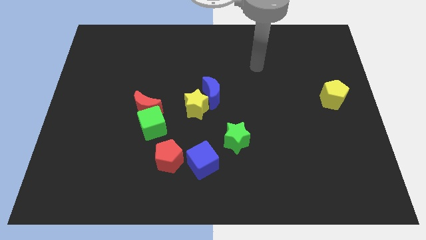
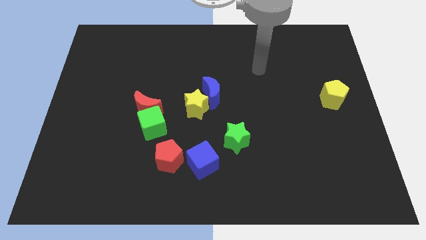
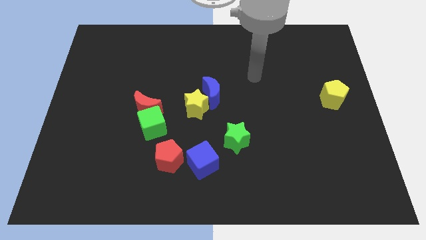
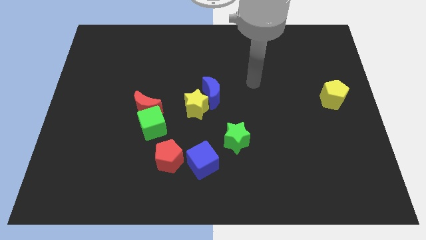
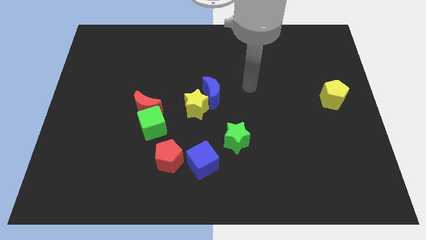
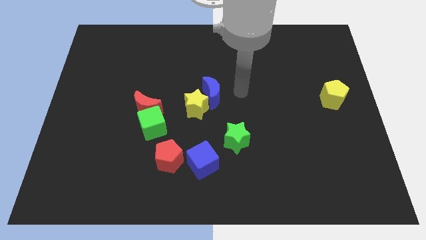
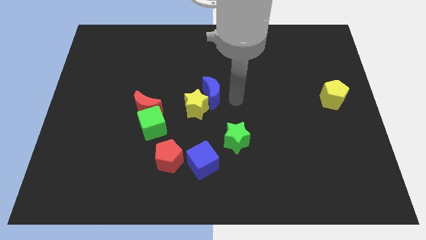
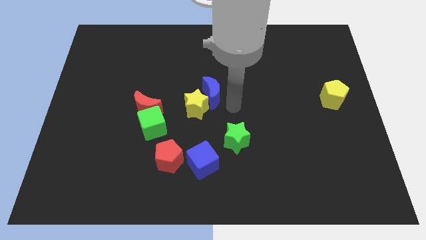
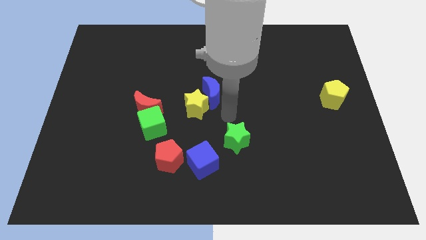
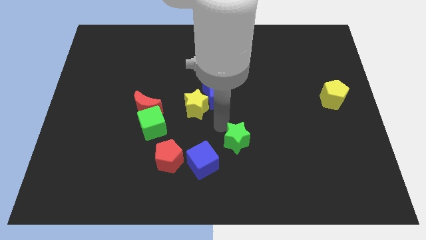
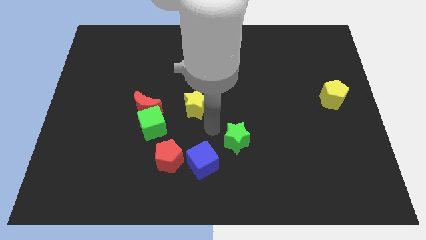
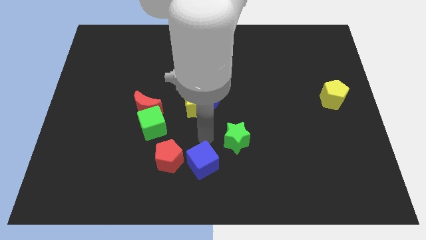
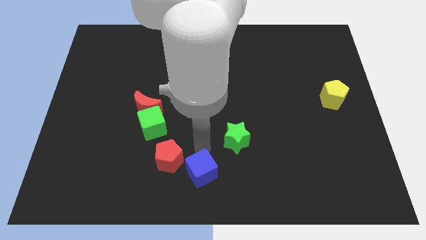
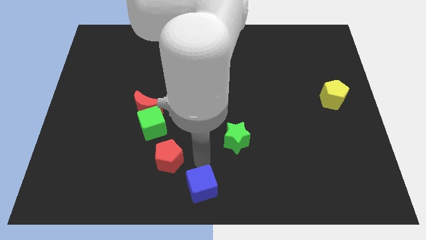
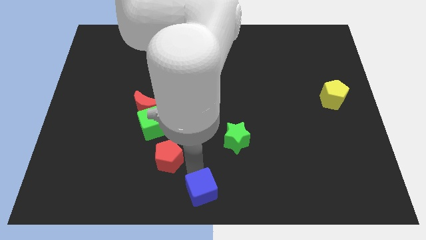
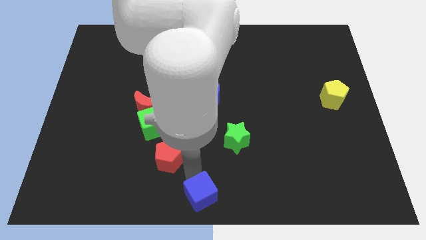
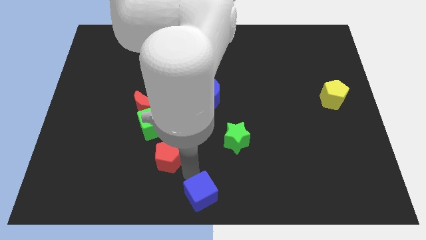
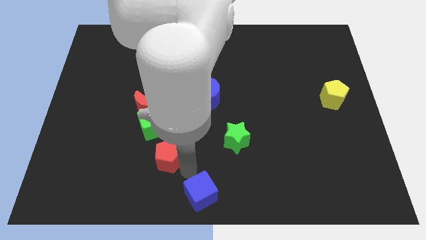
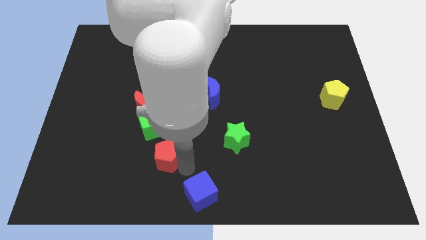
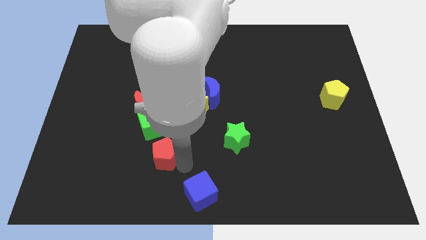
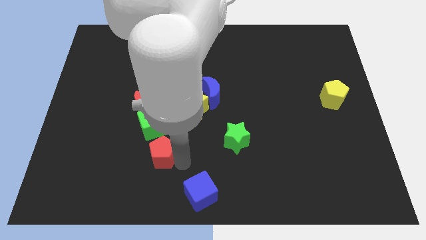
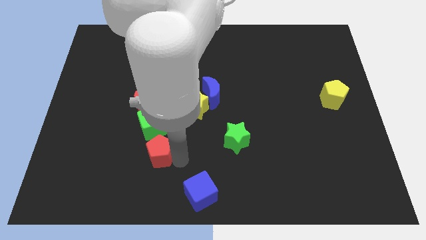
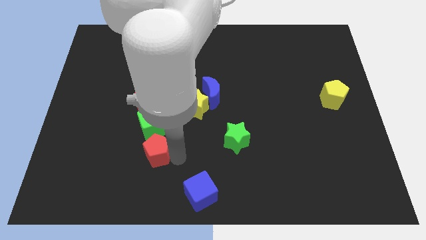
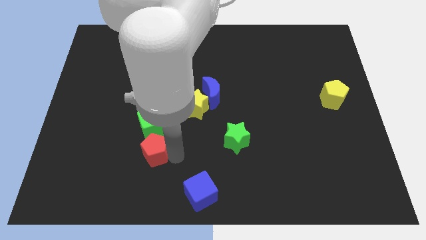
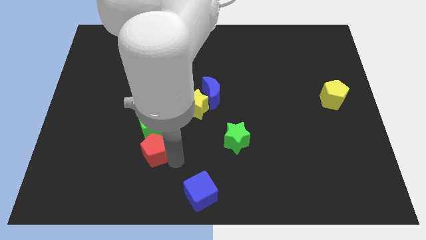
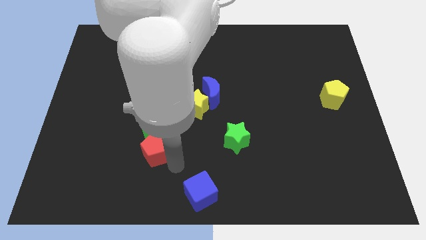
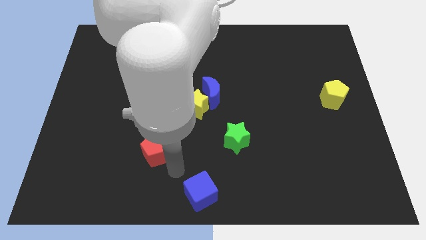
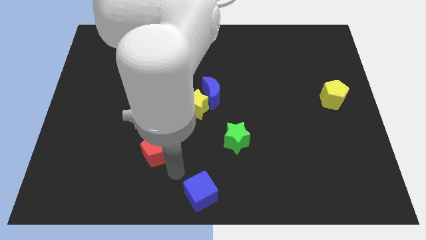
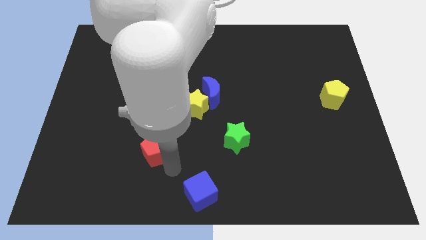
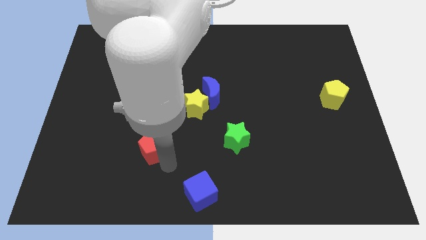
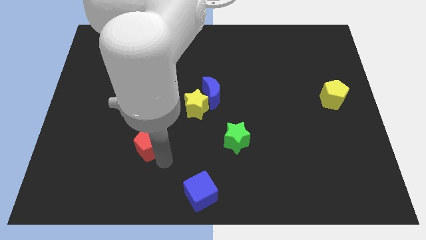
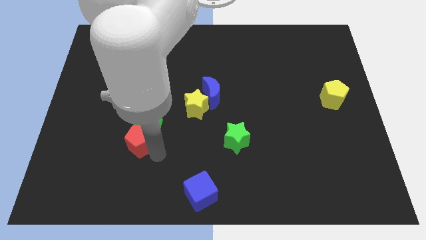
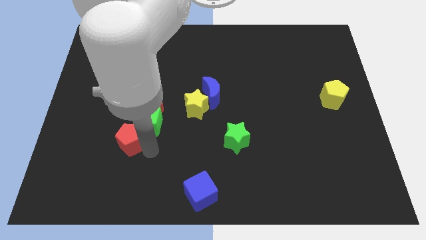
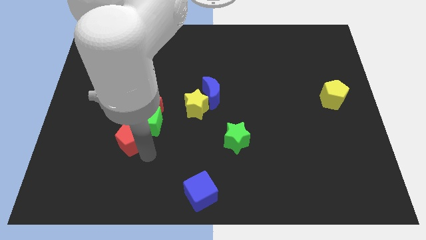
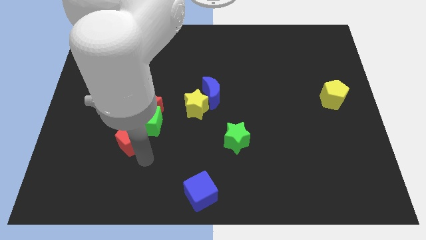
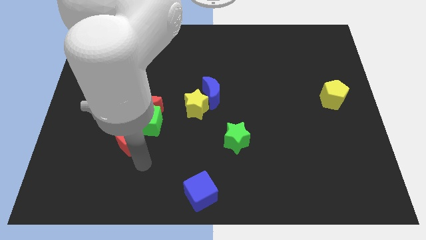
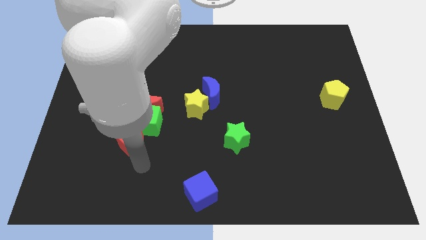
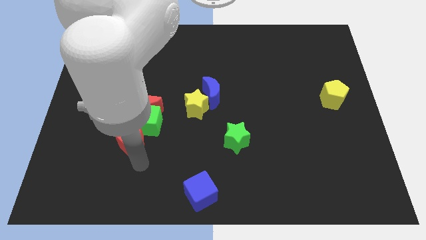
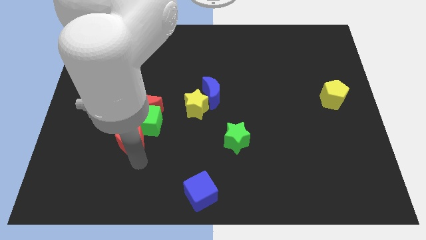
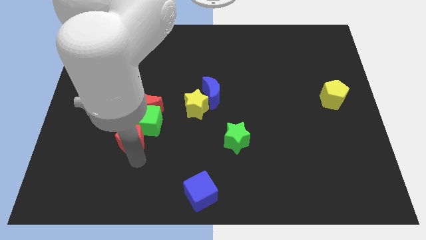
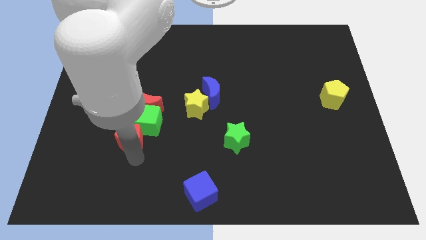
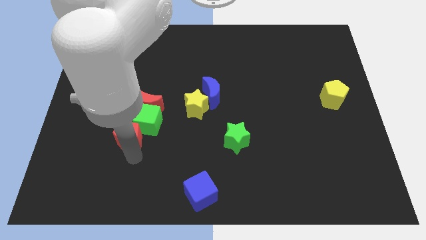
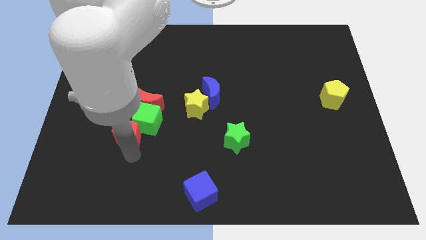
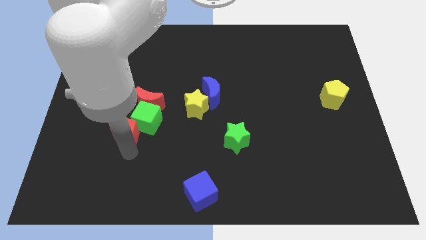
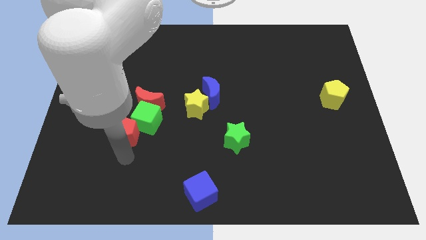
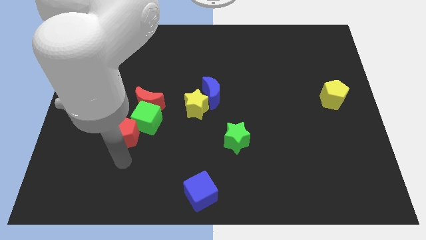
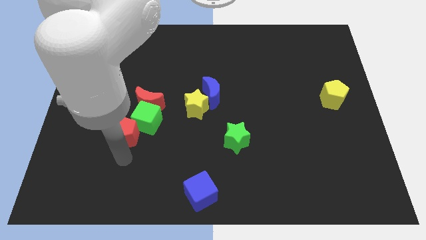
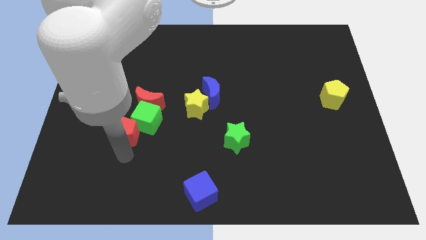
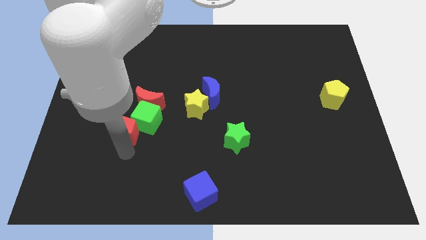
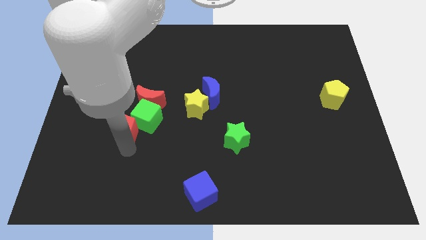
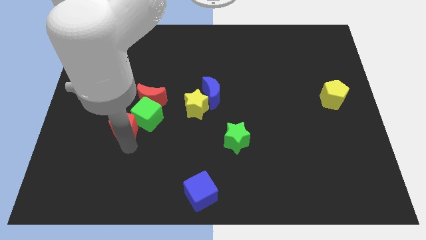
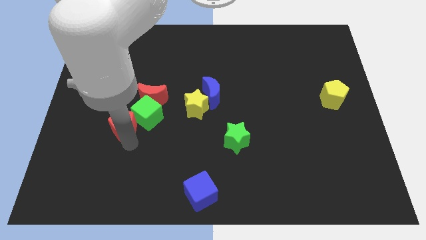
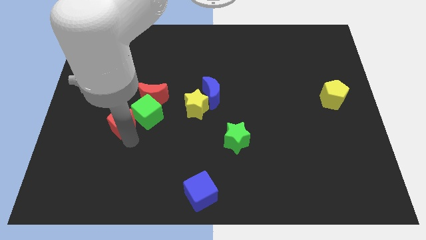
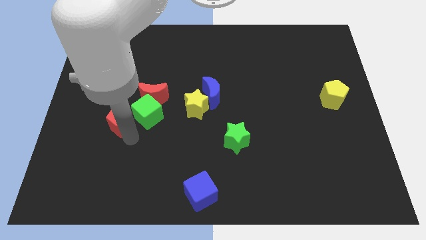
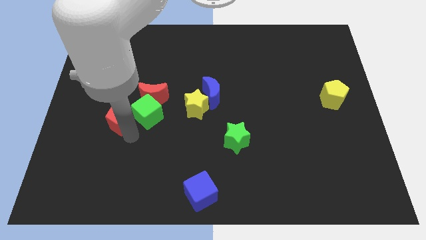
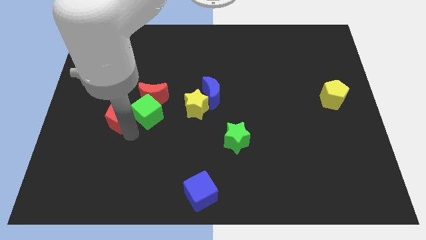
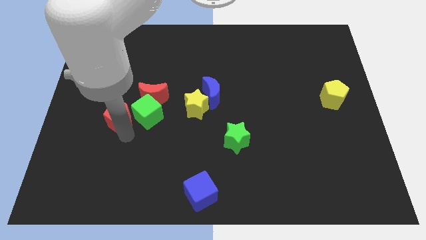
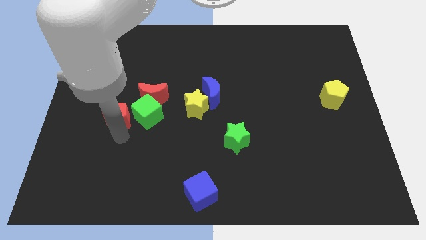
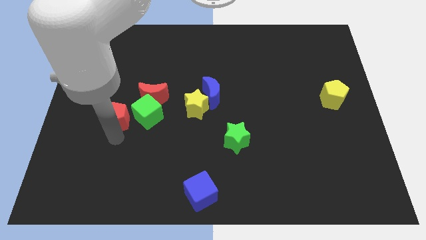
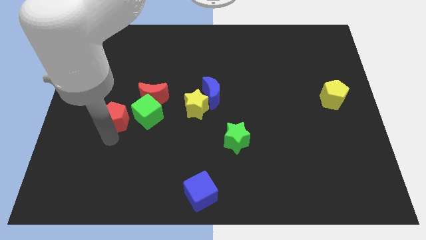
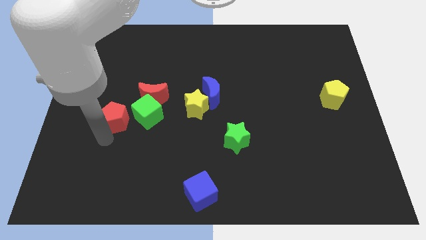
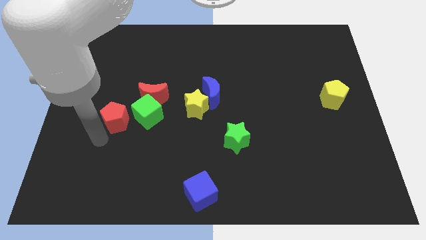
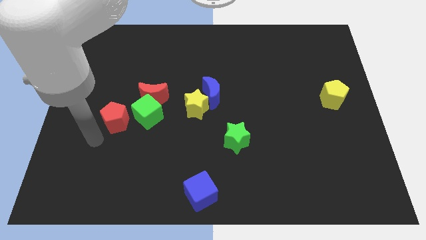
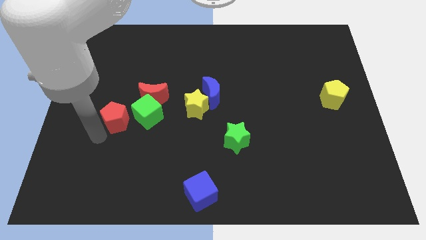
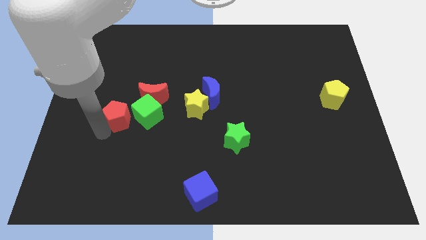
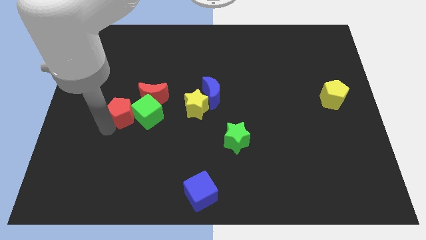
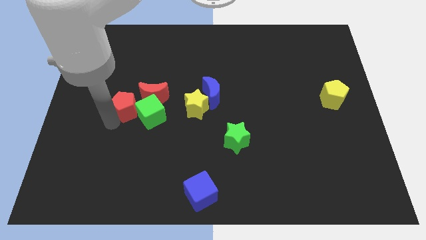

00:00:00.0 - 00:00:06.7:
put the red pentagon to the left of the yellow star
